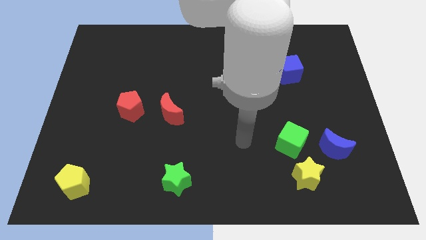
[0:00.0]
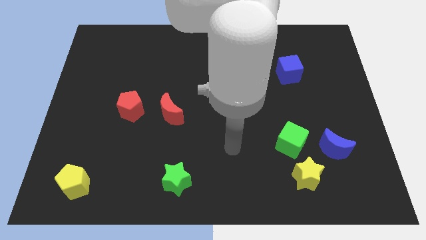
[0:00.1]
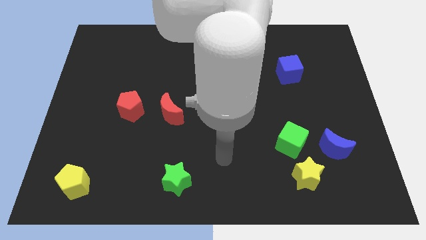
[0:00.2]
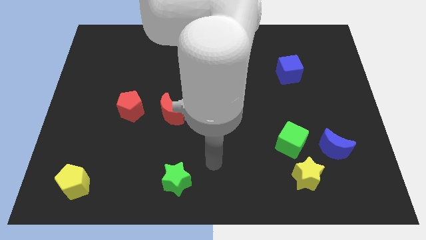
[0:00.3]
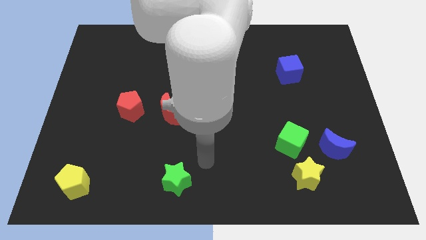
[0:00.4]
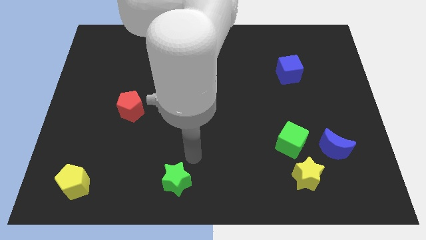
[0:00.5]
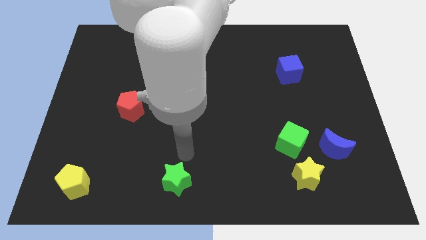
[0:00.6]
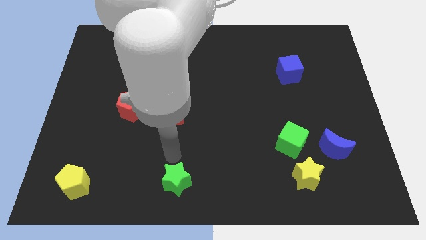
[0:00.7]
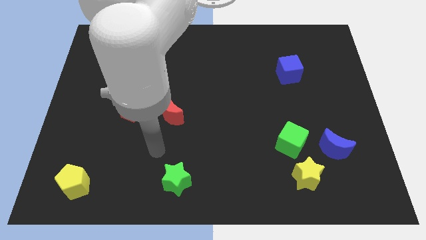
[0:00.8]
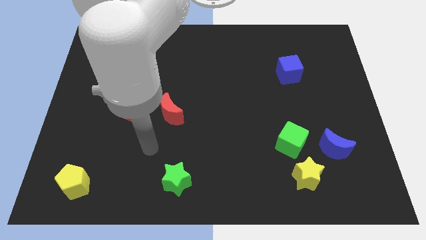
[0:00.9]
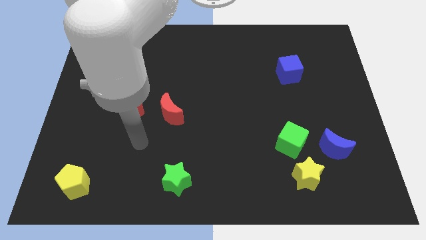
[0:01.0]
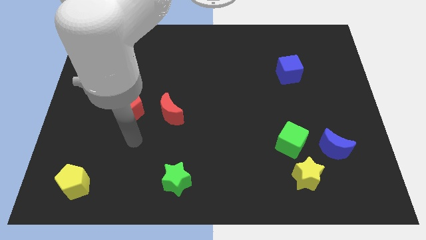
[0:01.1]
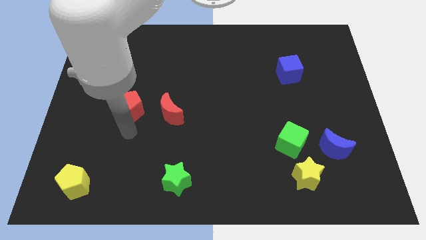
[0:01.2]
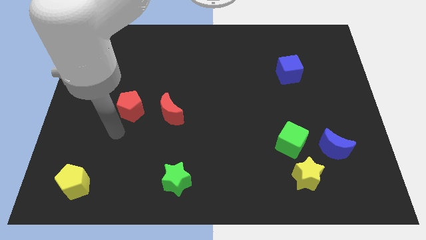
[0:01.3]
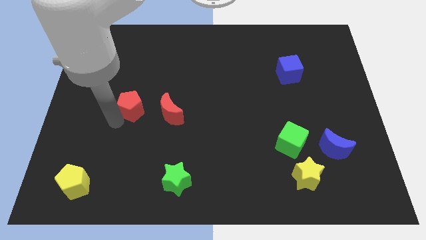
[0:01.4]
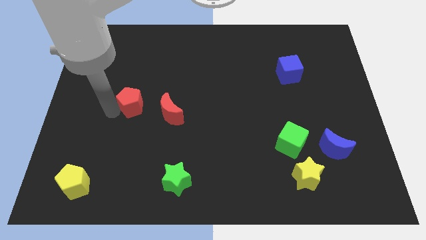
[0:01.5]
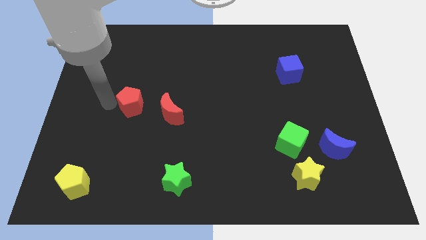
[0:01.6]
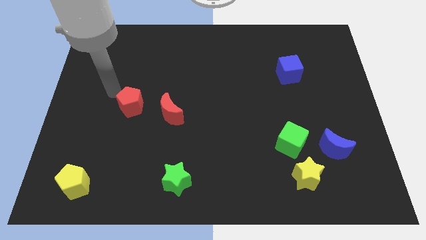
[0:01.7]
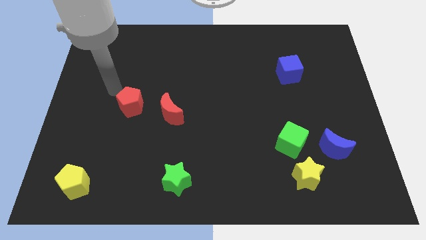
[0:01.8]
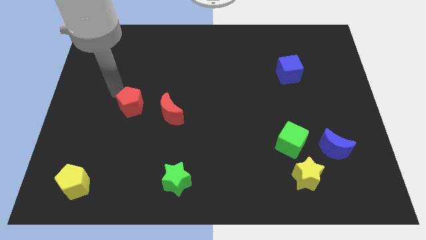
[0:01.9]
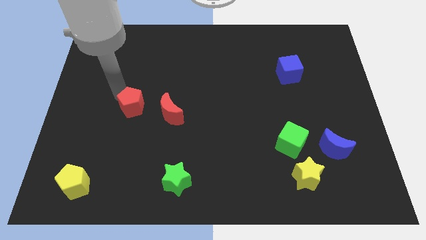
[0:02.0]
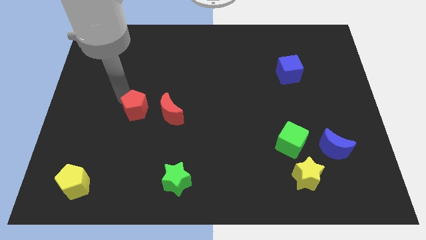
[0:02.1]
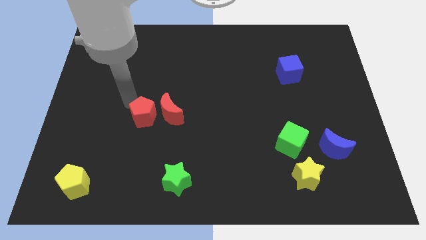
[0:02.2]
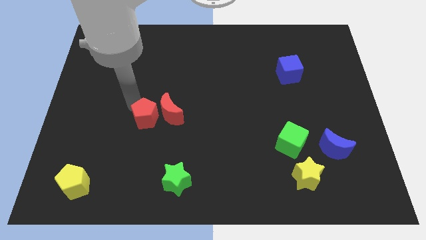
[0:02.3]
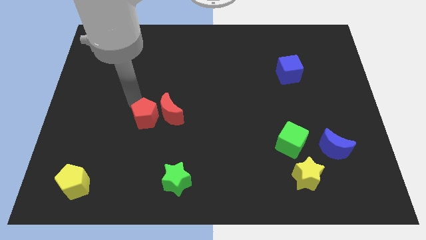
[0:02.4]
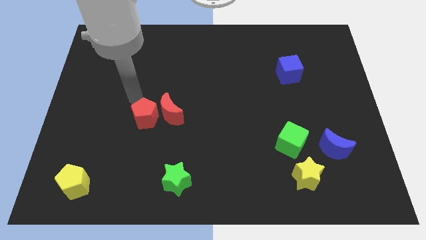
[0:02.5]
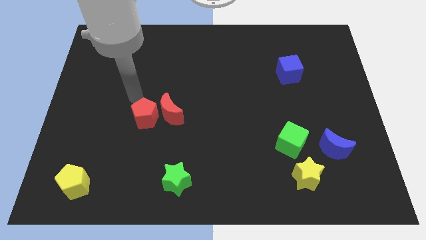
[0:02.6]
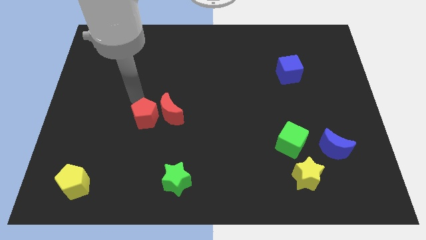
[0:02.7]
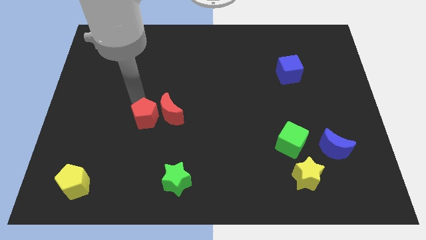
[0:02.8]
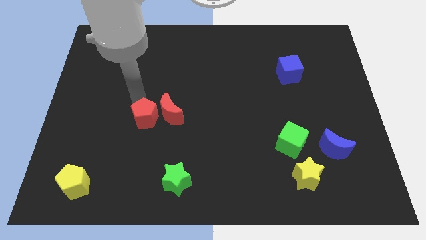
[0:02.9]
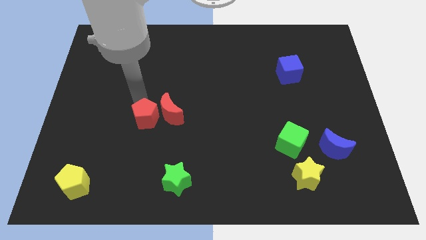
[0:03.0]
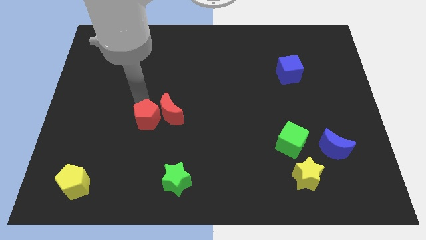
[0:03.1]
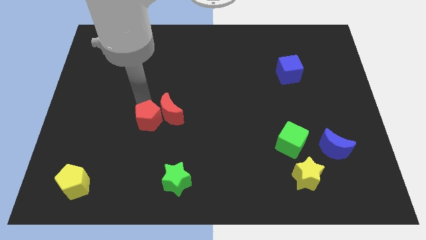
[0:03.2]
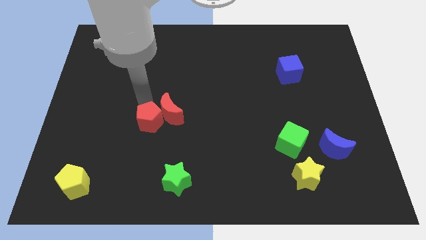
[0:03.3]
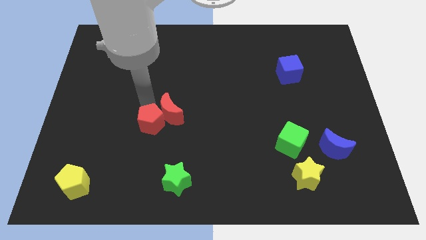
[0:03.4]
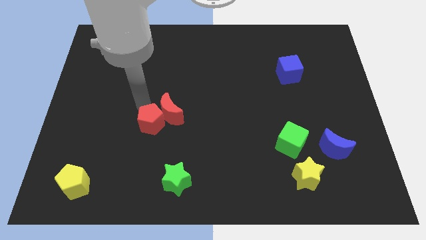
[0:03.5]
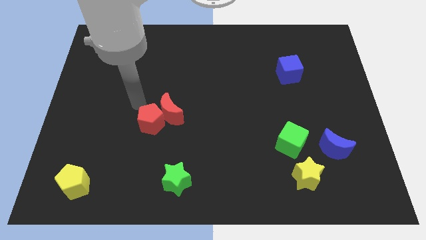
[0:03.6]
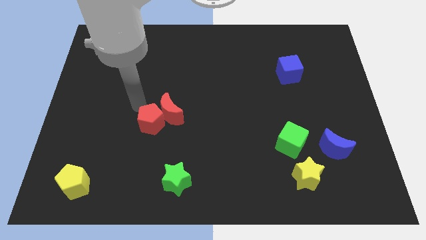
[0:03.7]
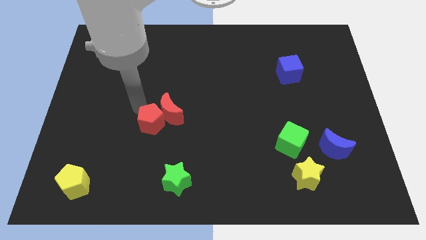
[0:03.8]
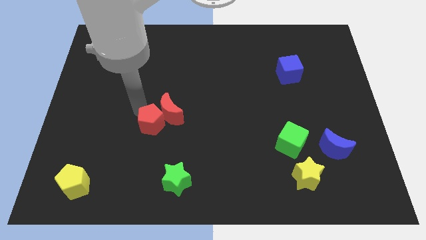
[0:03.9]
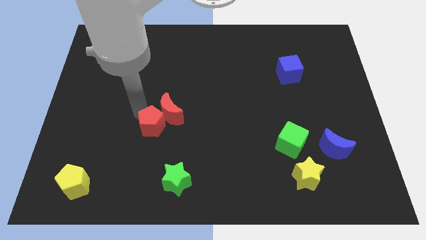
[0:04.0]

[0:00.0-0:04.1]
slide the red pentagon a little downwards and right diagonally

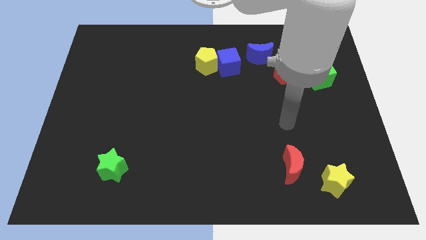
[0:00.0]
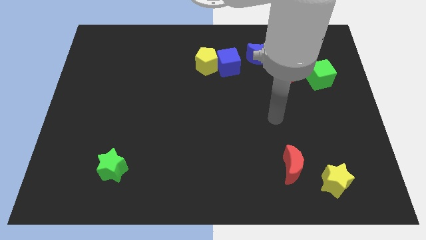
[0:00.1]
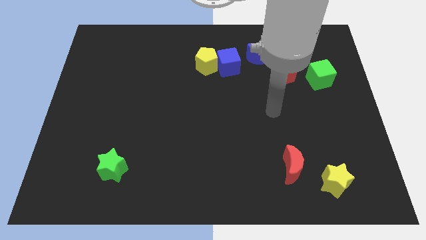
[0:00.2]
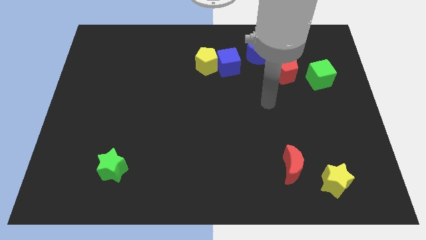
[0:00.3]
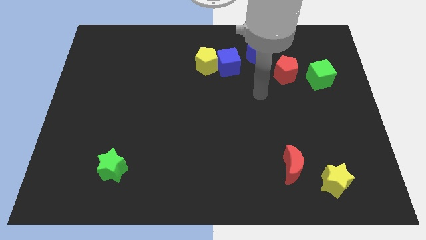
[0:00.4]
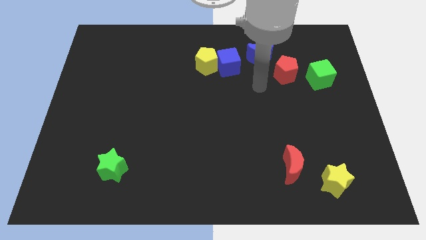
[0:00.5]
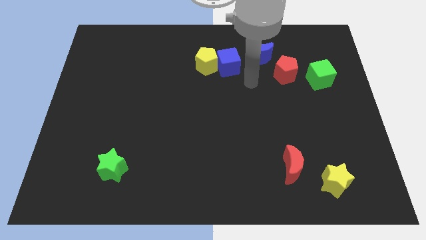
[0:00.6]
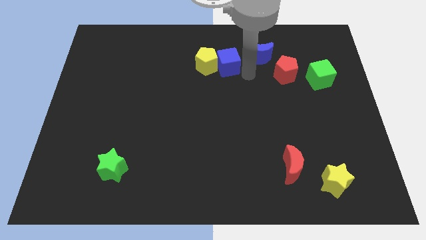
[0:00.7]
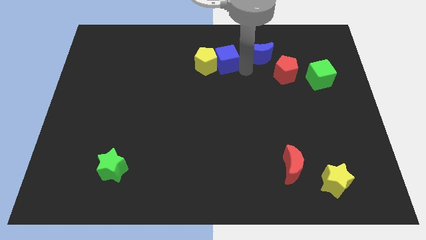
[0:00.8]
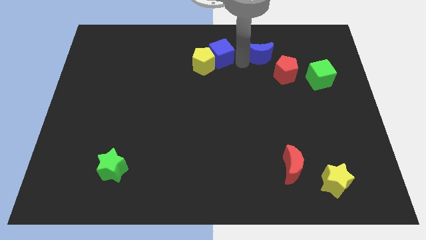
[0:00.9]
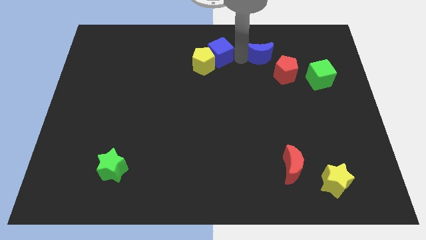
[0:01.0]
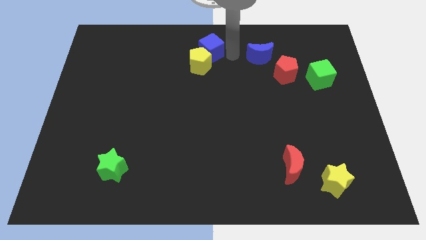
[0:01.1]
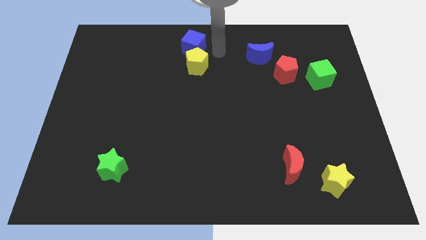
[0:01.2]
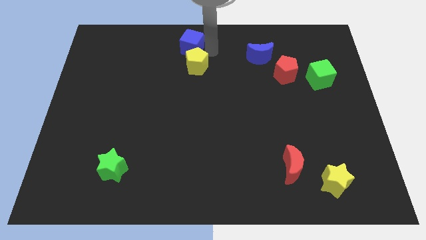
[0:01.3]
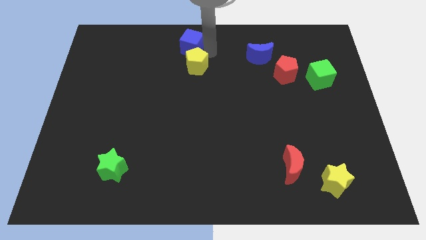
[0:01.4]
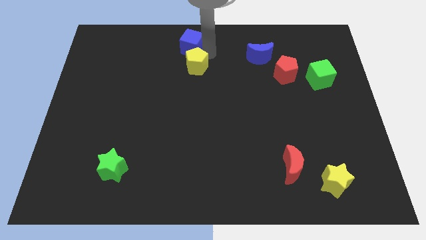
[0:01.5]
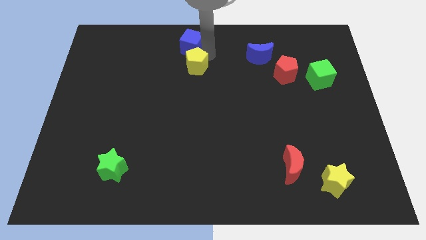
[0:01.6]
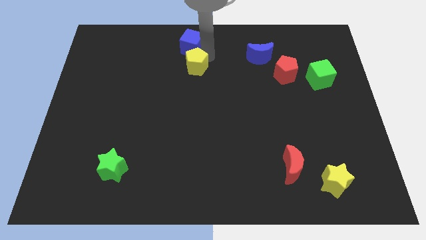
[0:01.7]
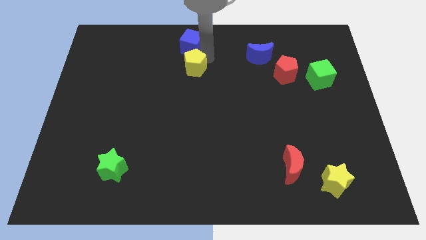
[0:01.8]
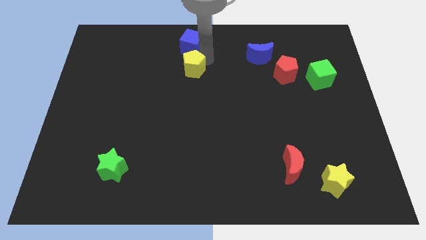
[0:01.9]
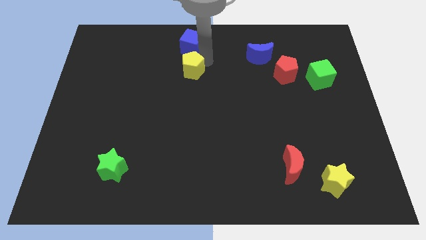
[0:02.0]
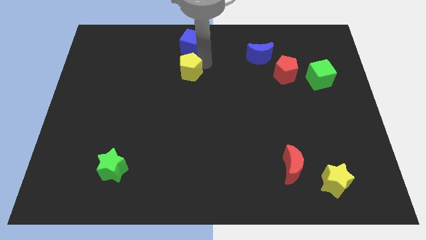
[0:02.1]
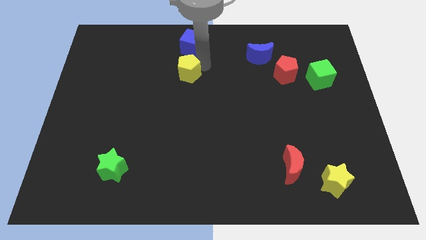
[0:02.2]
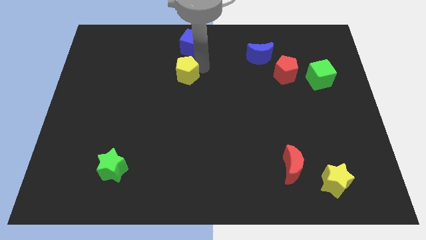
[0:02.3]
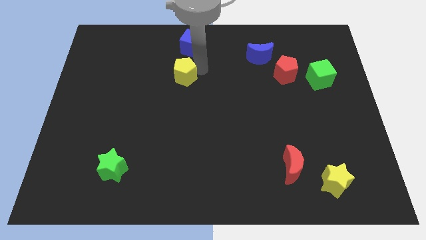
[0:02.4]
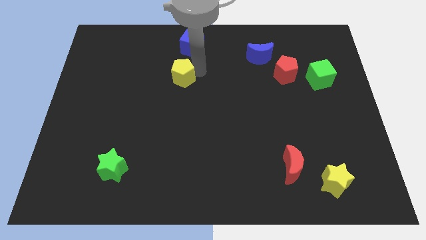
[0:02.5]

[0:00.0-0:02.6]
move the yellow pentagon downwards and left somewhat

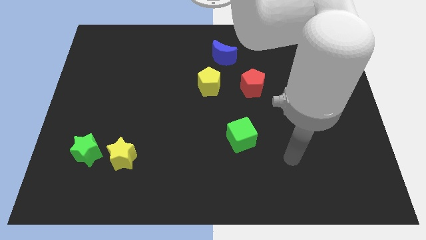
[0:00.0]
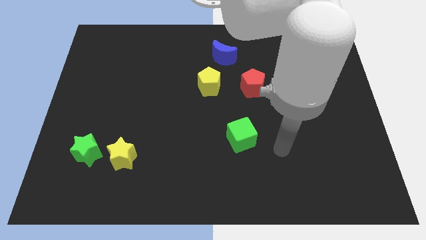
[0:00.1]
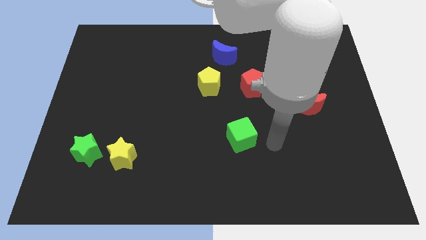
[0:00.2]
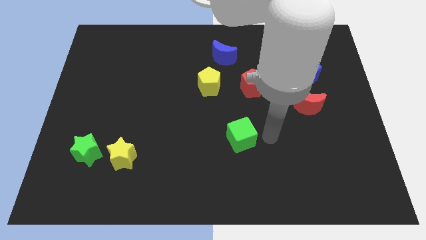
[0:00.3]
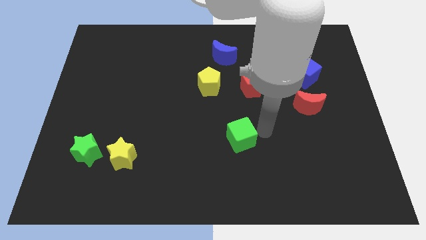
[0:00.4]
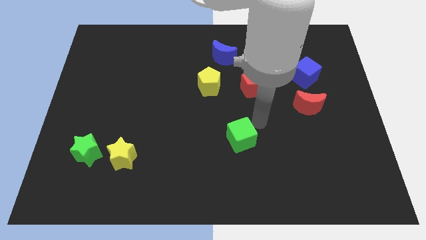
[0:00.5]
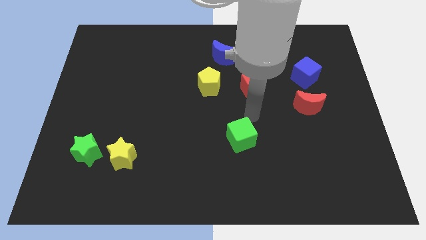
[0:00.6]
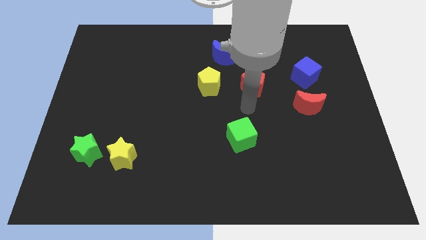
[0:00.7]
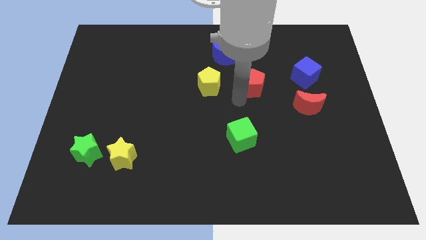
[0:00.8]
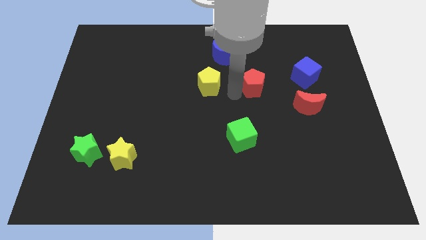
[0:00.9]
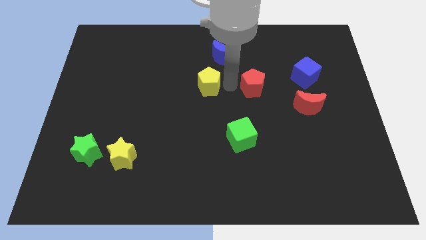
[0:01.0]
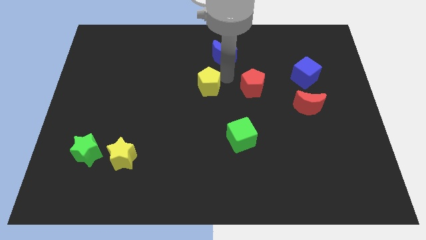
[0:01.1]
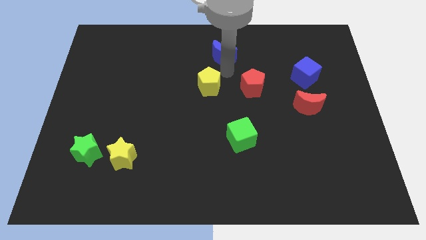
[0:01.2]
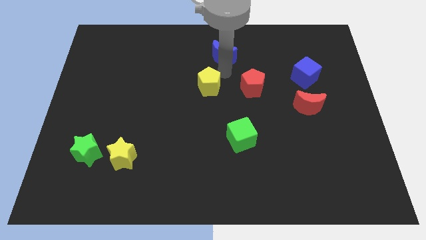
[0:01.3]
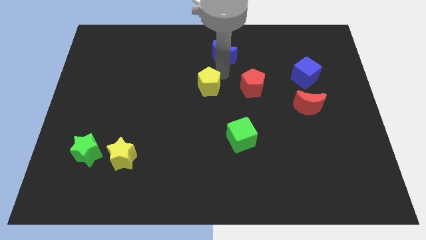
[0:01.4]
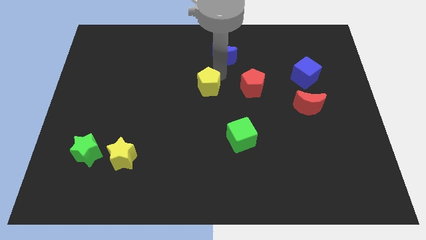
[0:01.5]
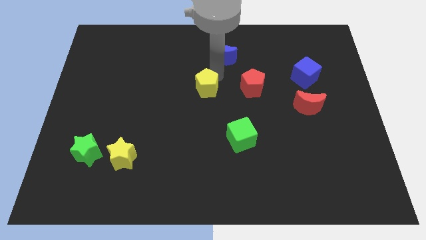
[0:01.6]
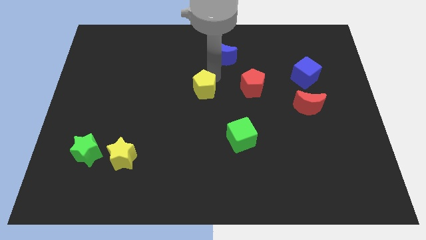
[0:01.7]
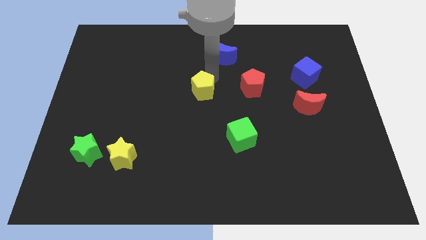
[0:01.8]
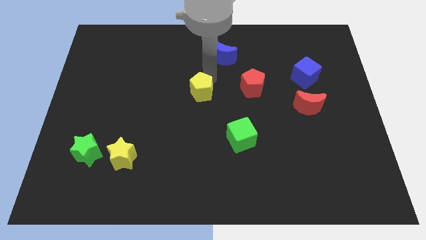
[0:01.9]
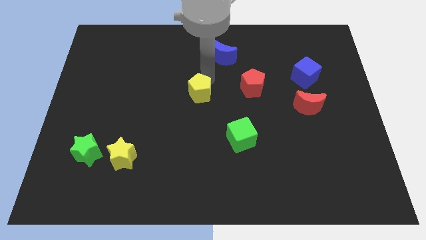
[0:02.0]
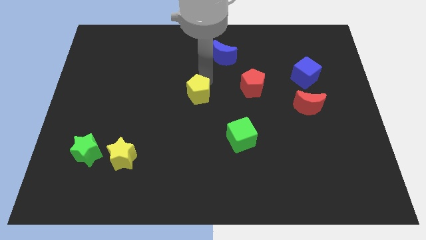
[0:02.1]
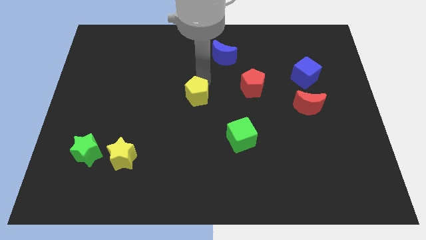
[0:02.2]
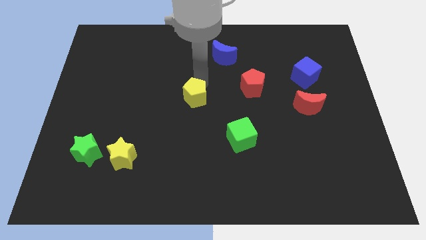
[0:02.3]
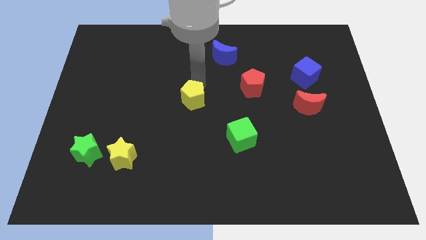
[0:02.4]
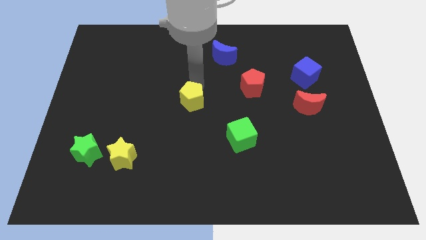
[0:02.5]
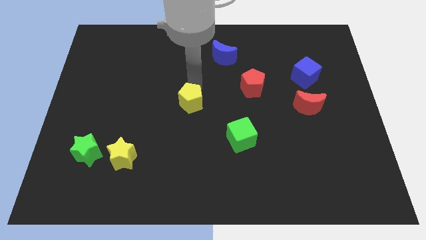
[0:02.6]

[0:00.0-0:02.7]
slightly move the yellow pentagon downwards and left diagonally
